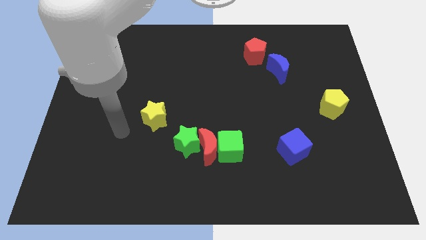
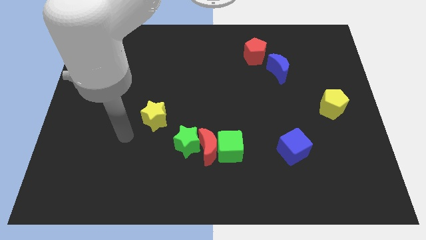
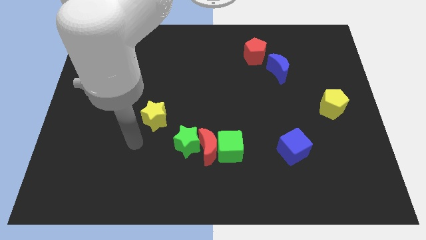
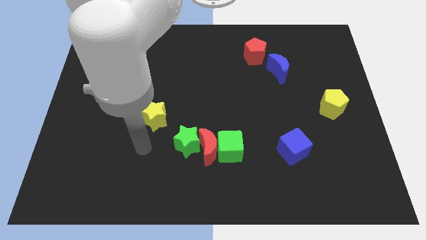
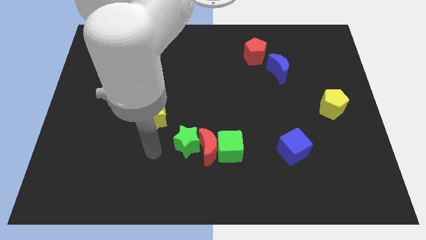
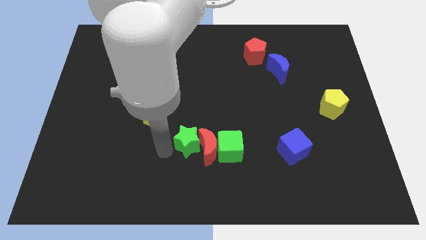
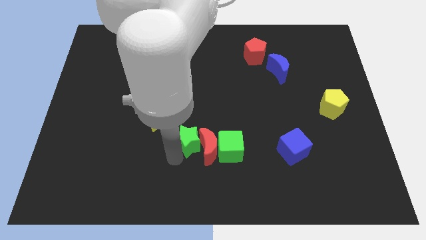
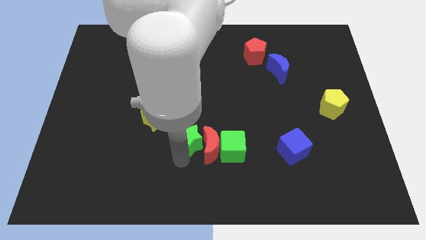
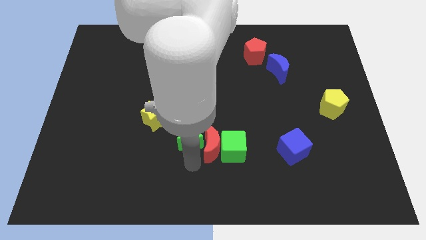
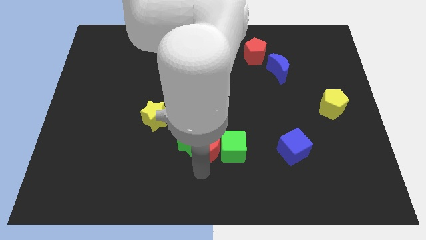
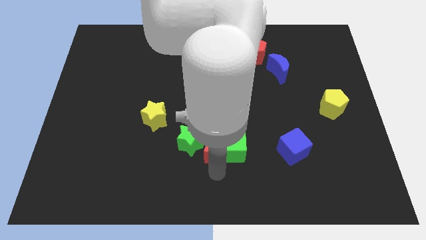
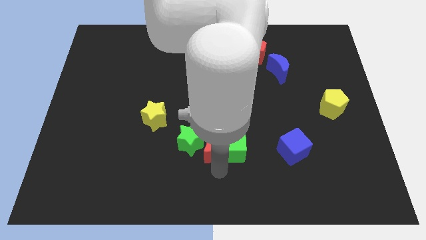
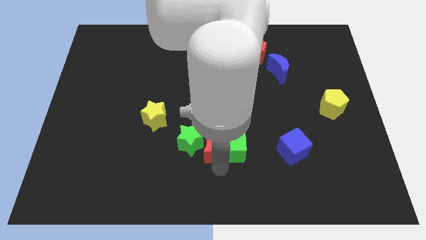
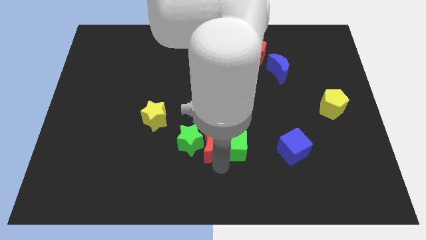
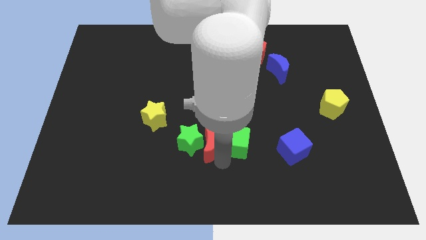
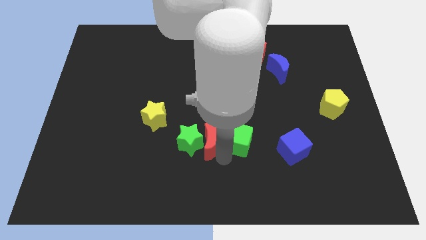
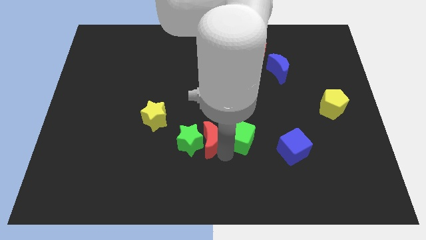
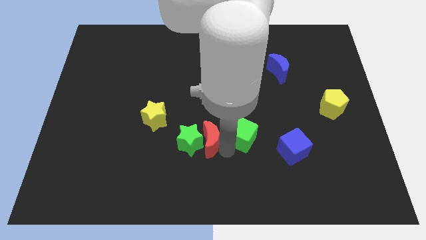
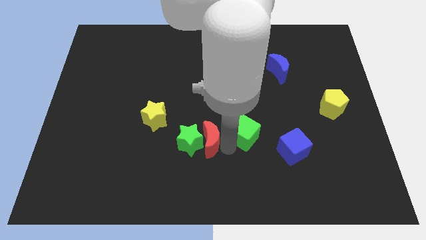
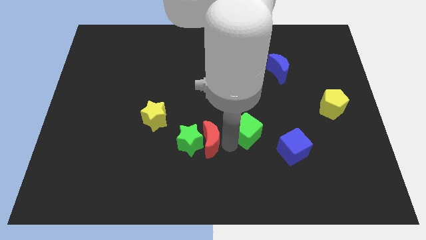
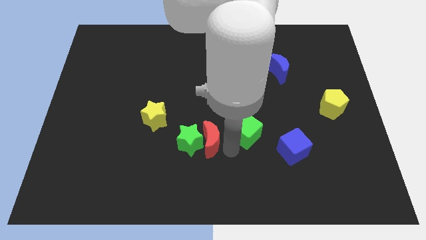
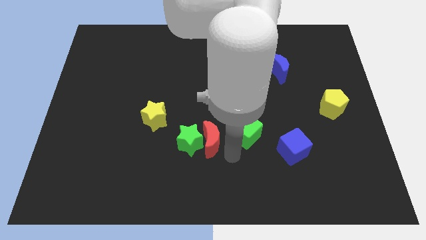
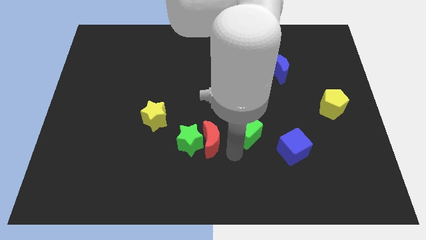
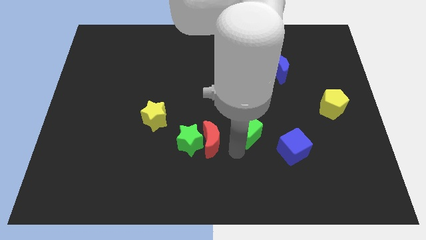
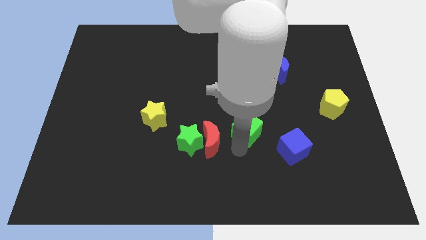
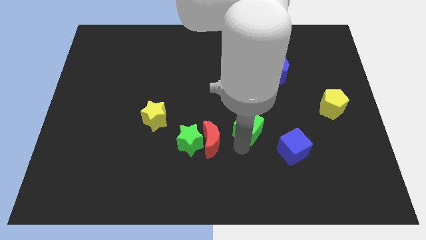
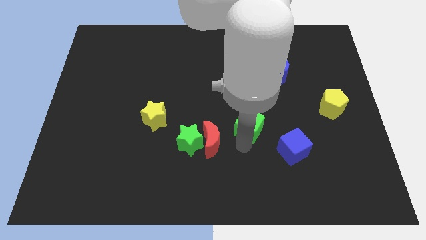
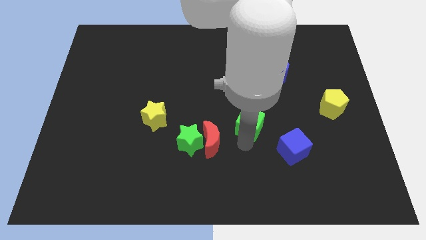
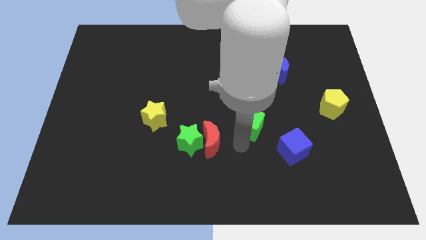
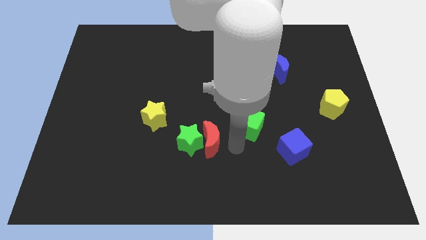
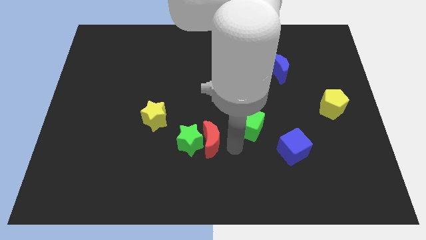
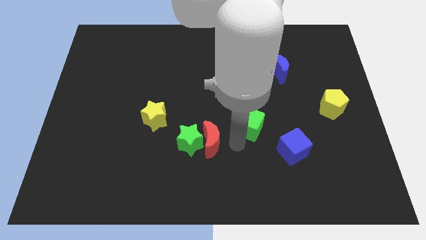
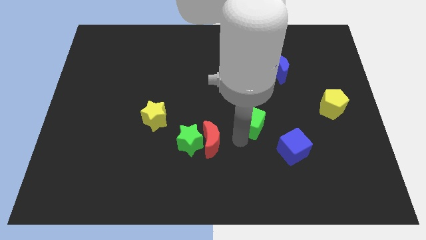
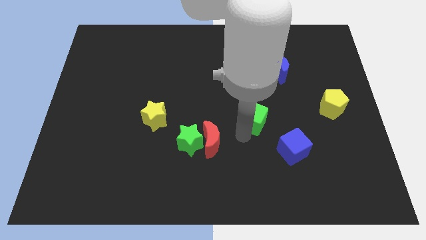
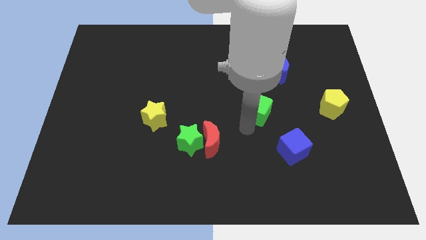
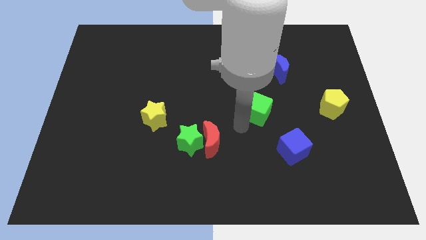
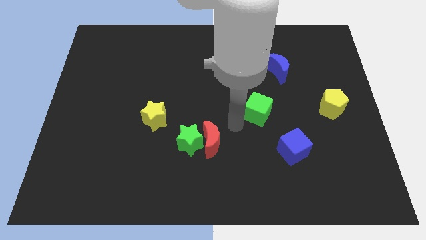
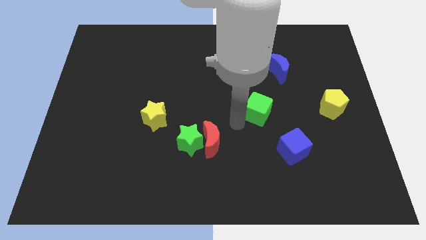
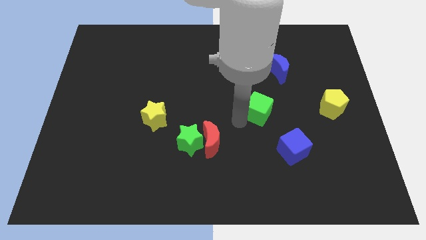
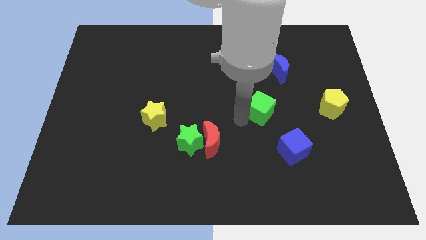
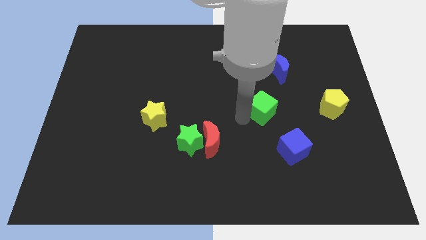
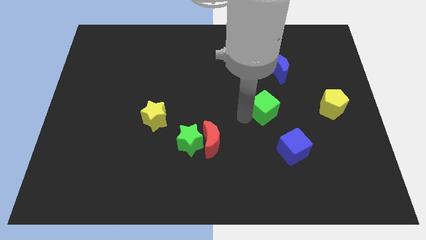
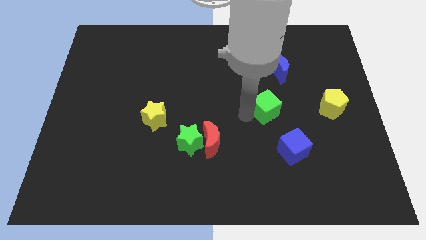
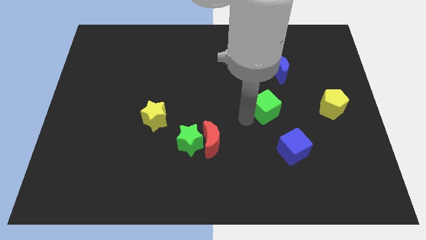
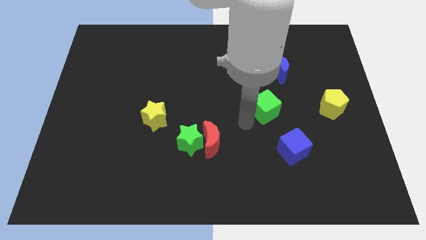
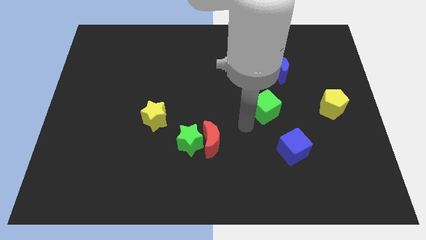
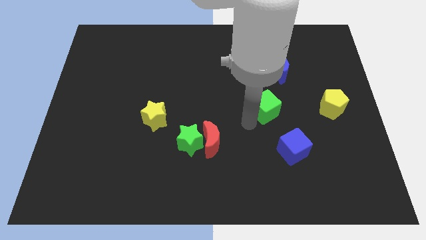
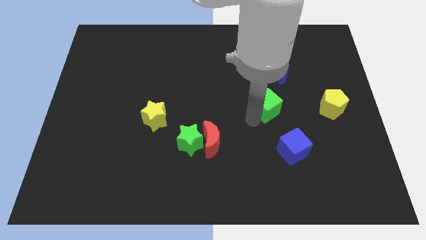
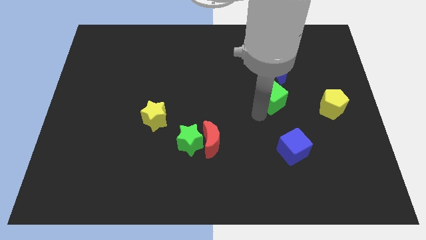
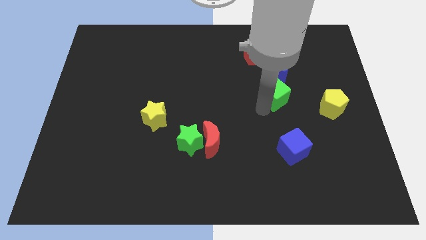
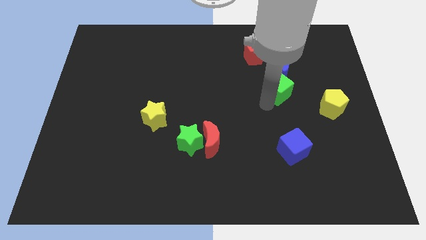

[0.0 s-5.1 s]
push the green cube diagonally up and to the right

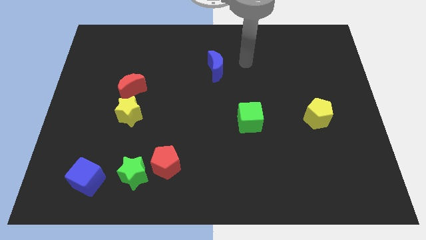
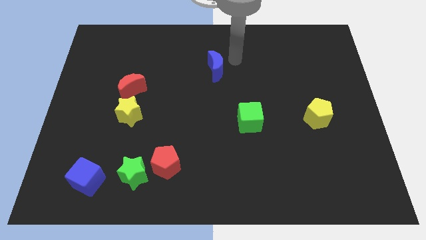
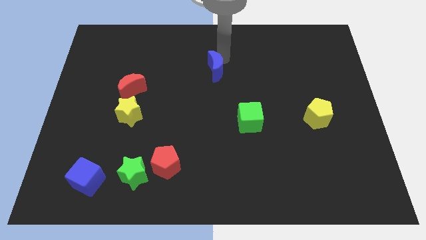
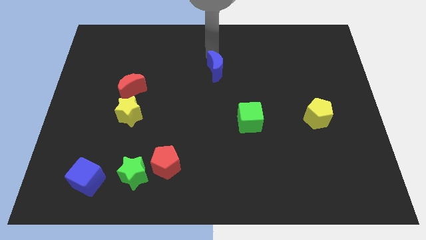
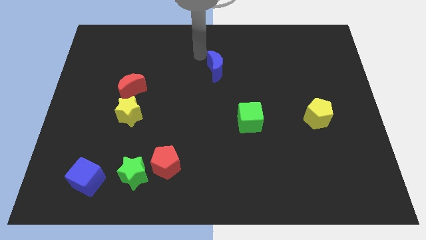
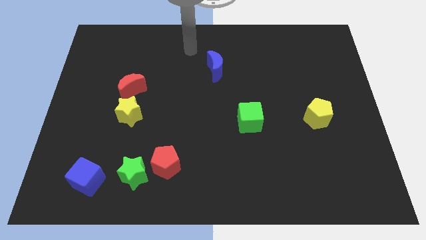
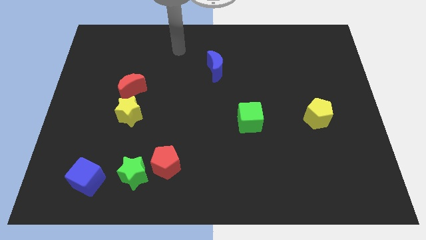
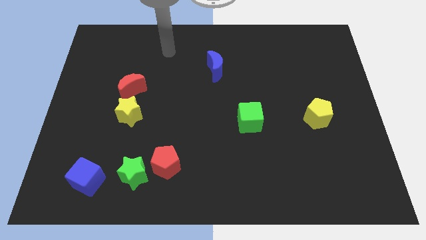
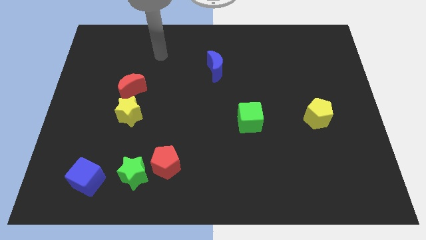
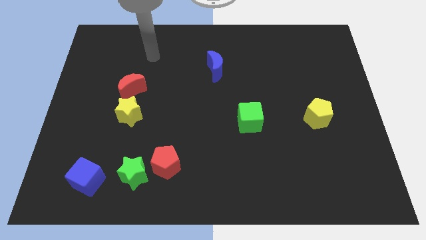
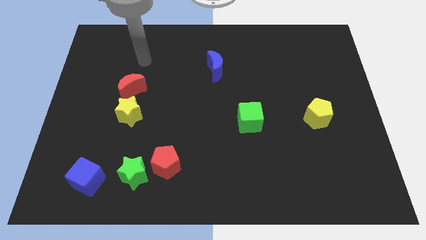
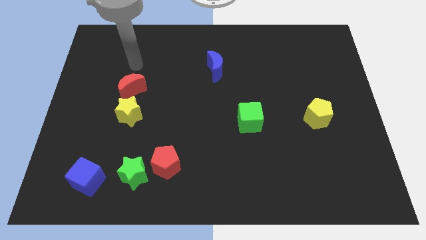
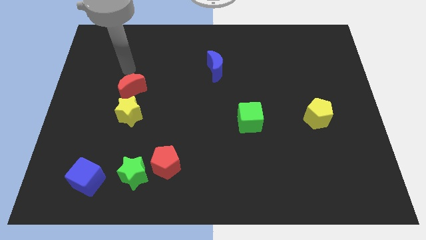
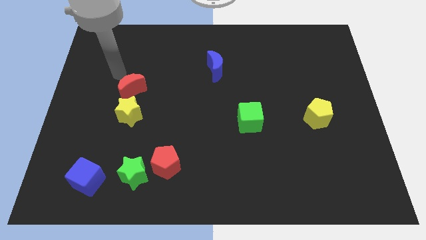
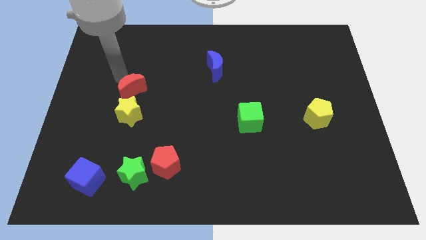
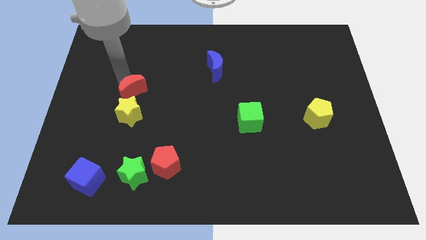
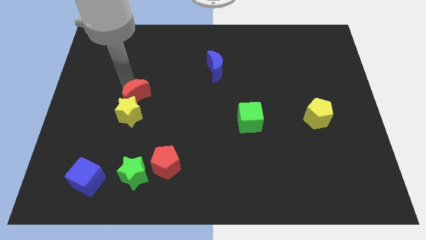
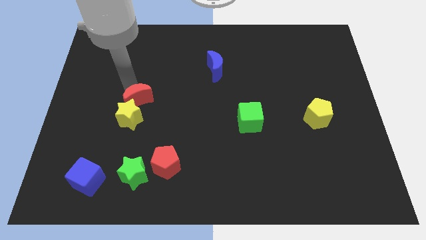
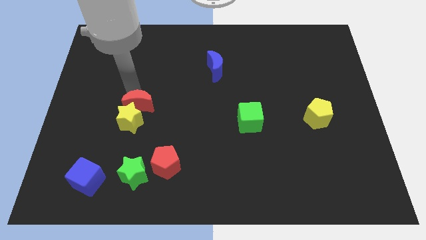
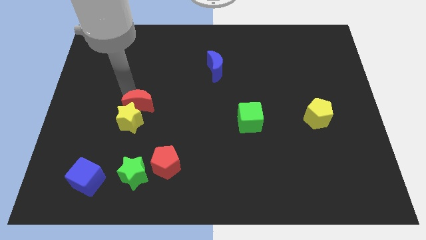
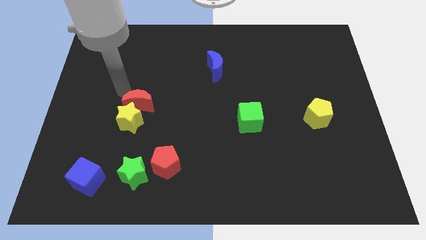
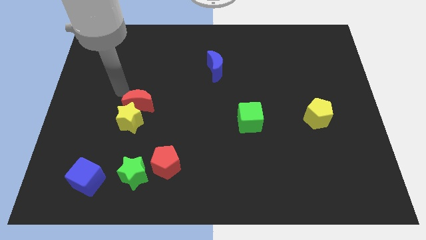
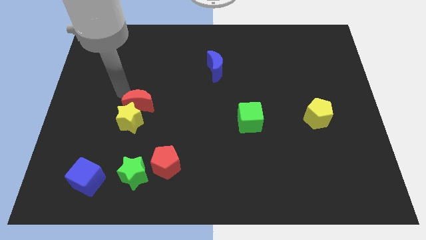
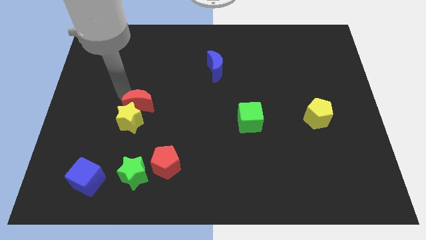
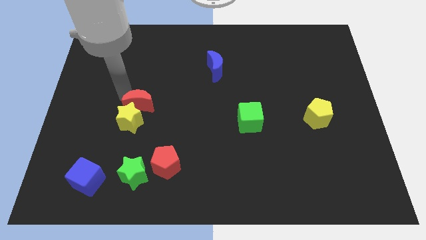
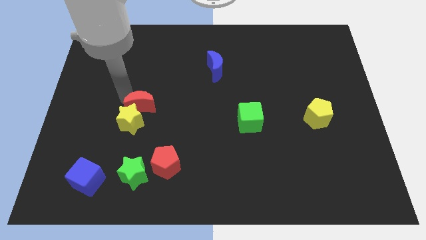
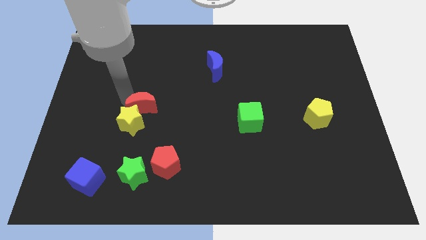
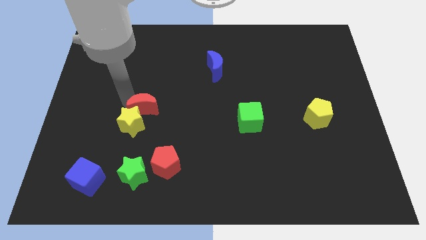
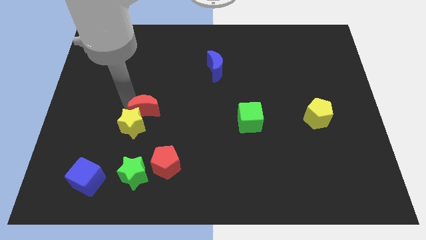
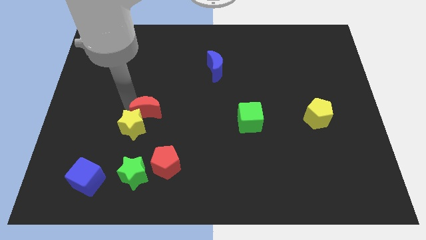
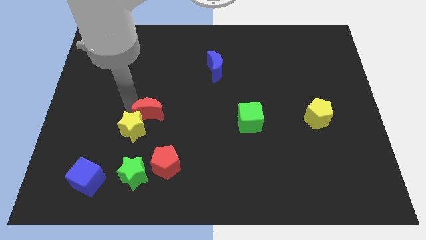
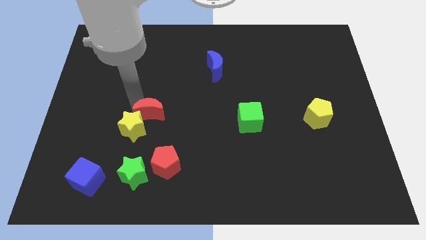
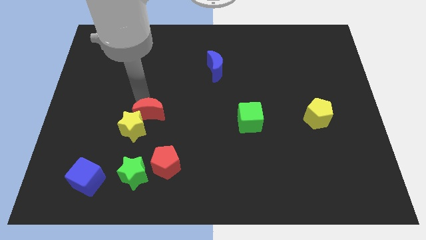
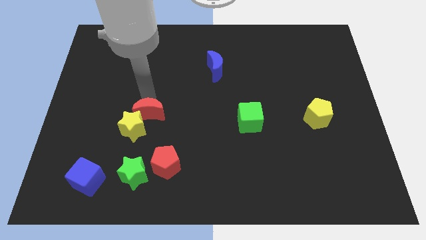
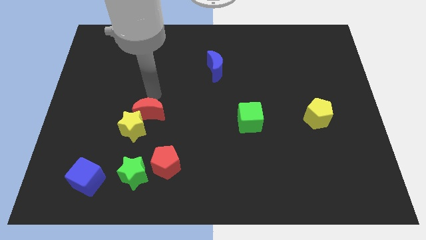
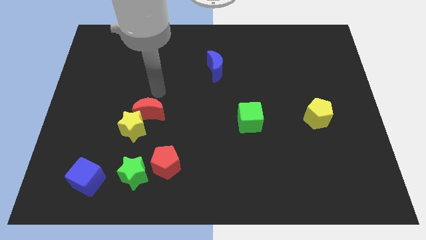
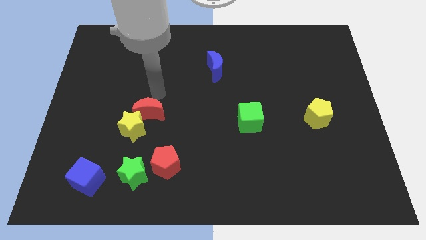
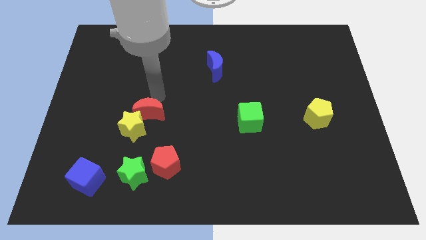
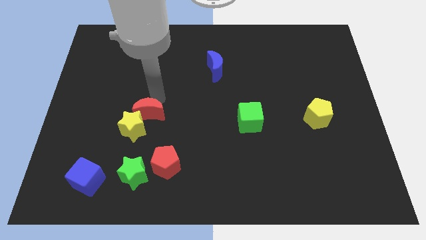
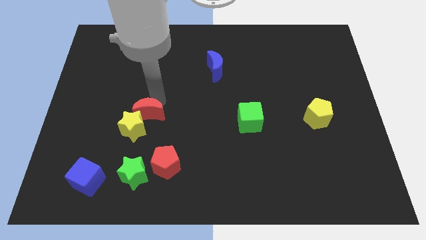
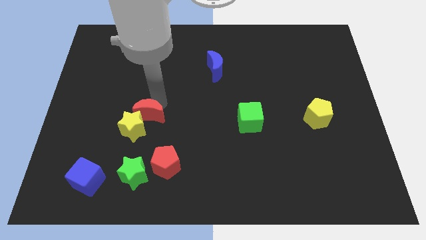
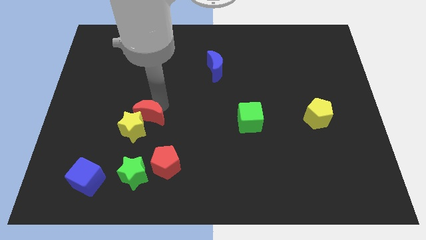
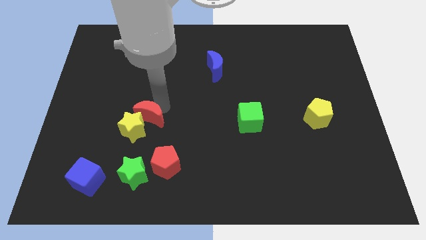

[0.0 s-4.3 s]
slightly slide the red moon downwards
